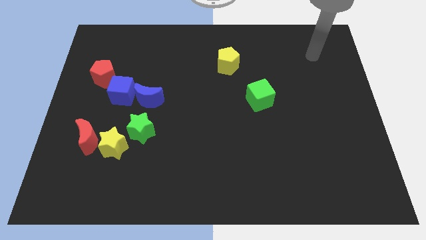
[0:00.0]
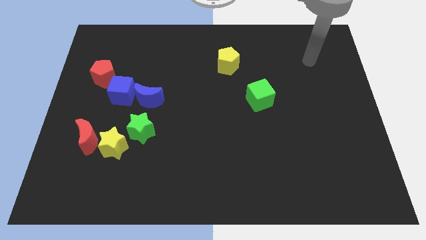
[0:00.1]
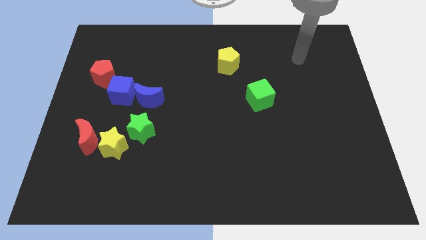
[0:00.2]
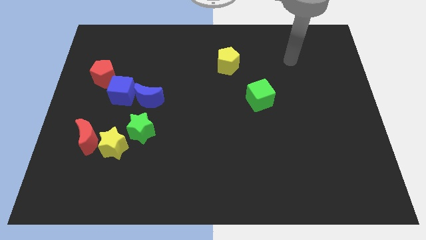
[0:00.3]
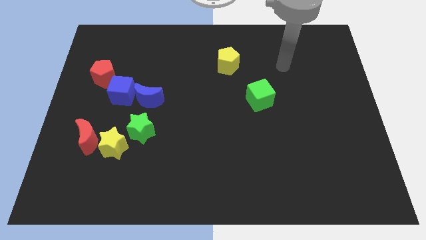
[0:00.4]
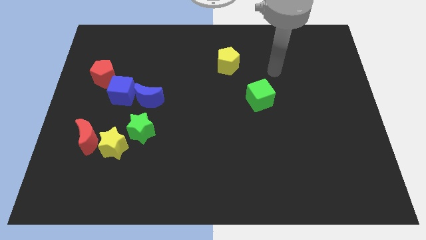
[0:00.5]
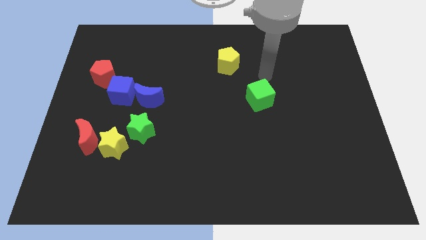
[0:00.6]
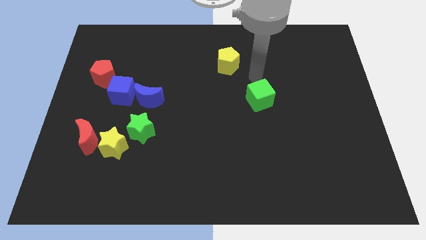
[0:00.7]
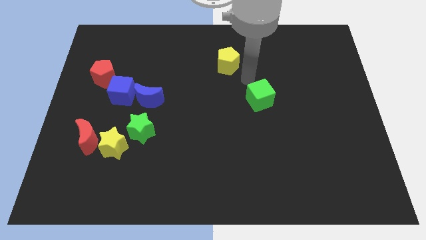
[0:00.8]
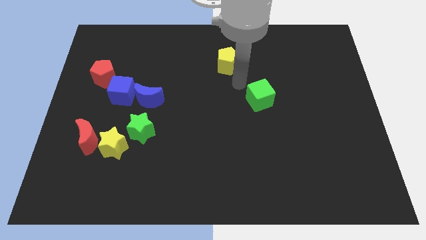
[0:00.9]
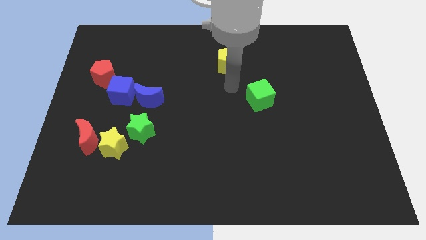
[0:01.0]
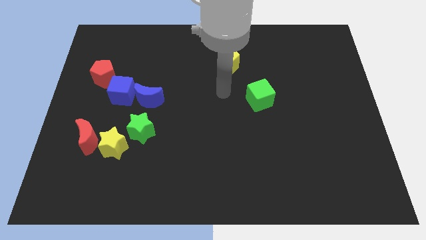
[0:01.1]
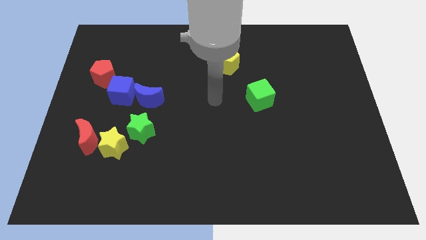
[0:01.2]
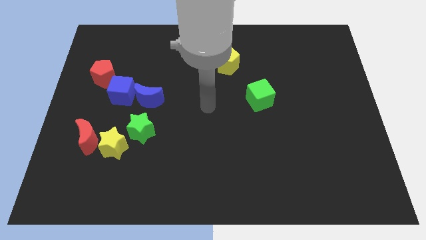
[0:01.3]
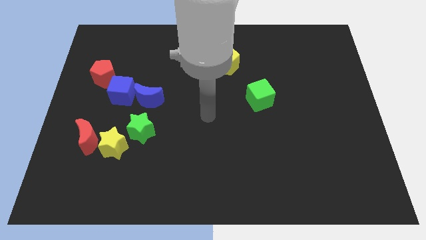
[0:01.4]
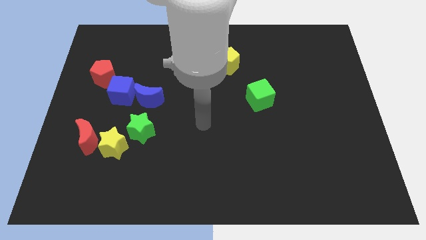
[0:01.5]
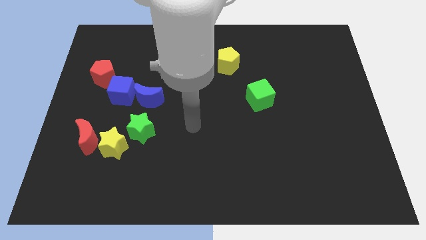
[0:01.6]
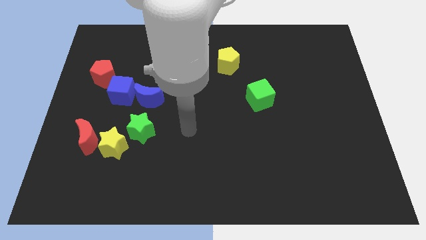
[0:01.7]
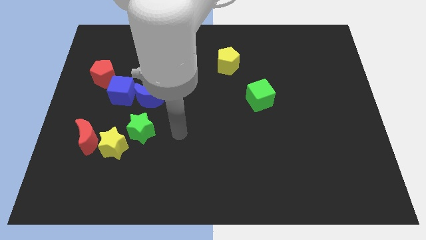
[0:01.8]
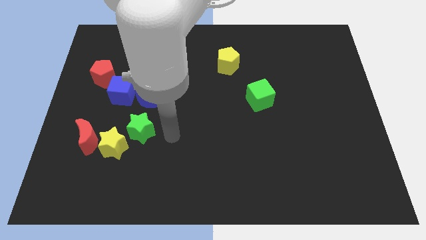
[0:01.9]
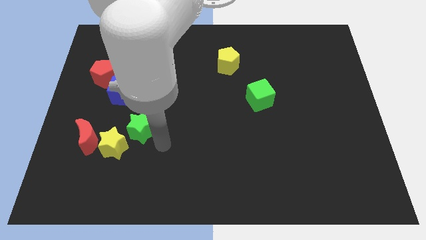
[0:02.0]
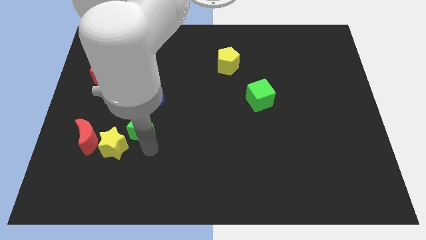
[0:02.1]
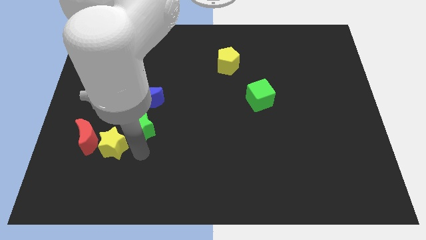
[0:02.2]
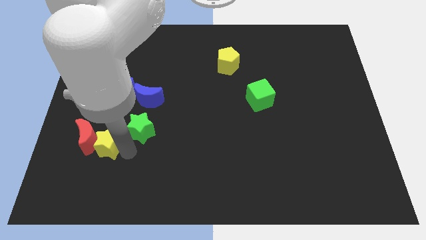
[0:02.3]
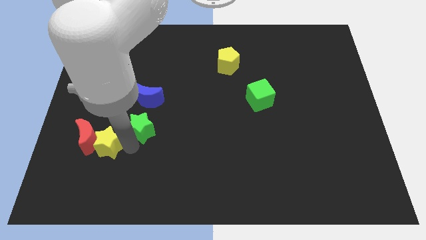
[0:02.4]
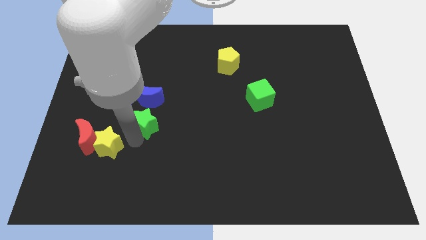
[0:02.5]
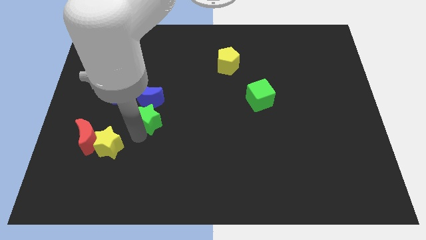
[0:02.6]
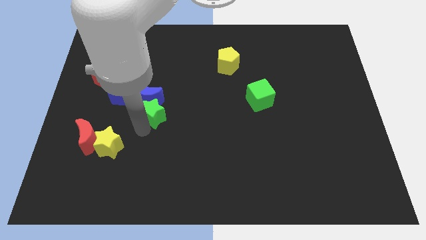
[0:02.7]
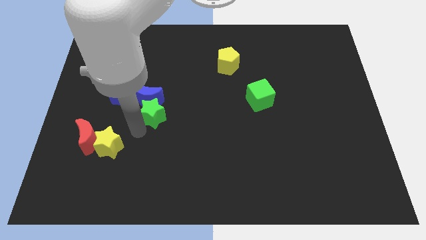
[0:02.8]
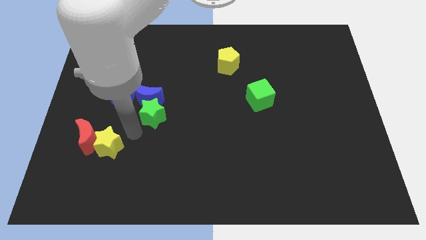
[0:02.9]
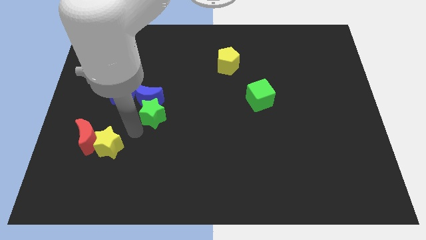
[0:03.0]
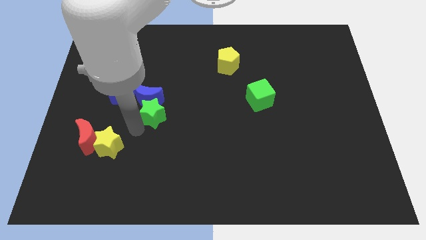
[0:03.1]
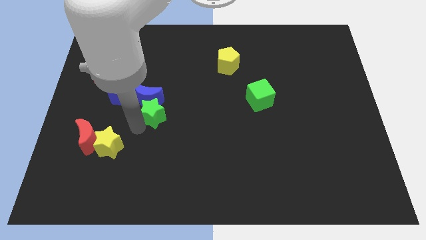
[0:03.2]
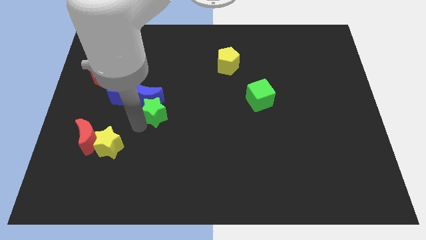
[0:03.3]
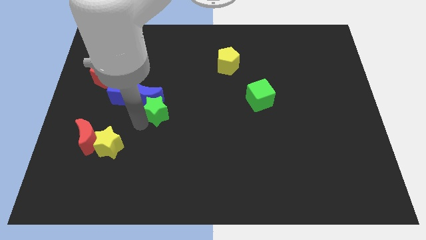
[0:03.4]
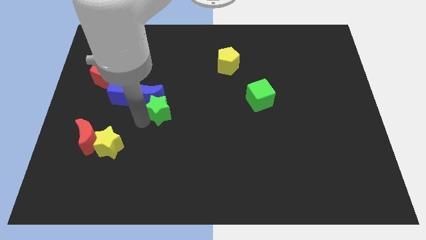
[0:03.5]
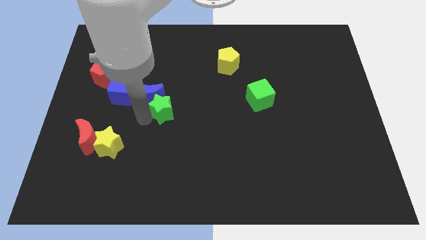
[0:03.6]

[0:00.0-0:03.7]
slightly slide the green star diagonally upwards and right

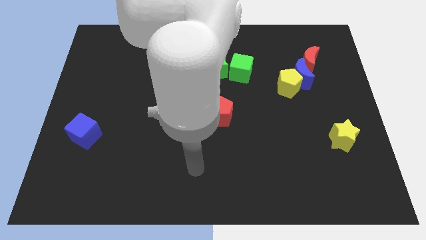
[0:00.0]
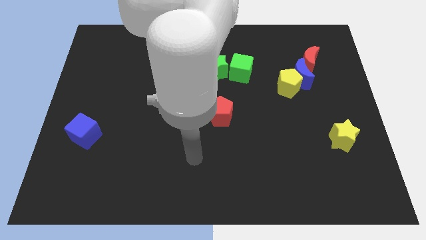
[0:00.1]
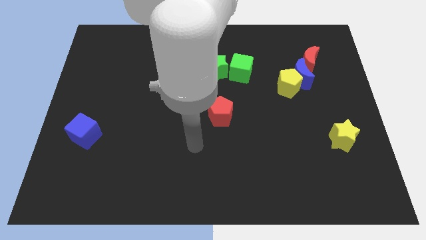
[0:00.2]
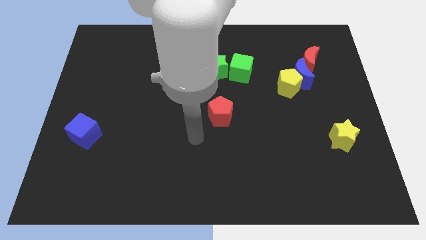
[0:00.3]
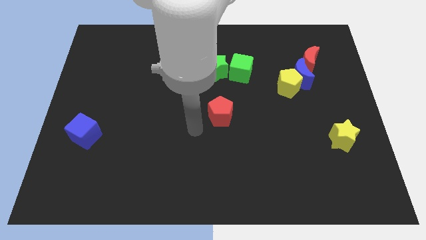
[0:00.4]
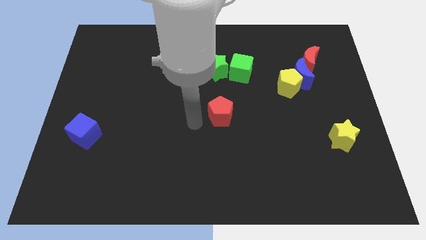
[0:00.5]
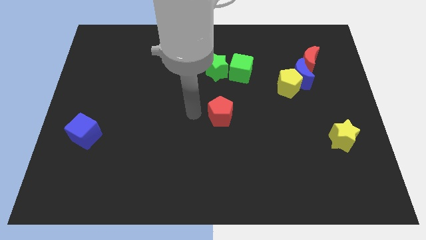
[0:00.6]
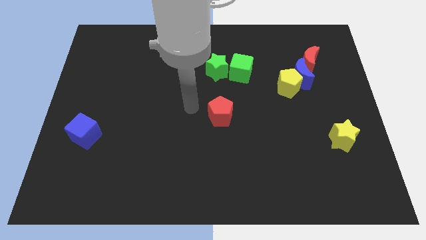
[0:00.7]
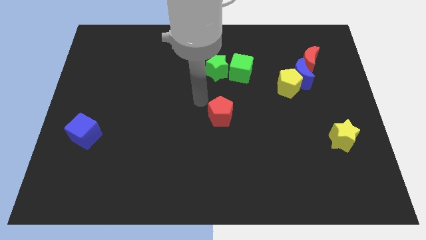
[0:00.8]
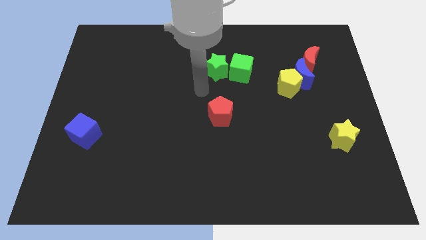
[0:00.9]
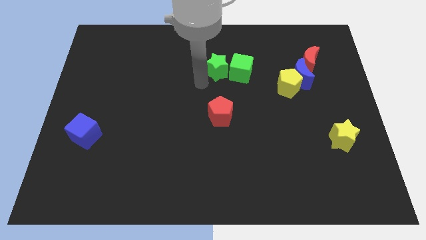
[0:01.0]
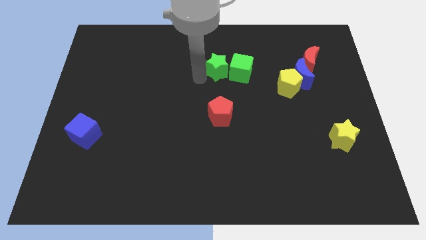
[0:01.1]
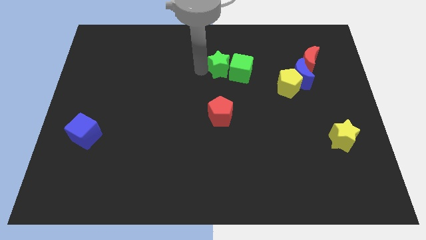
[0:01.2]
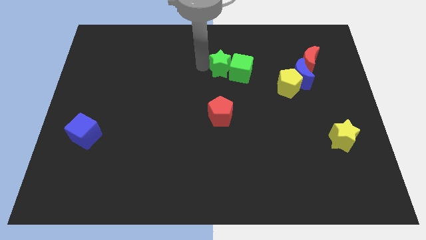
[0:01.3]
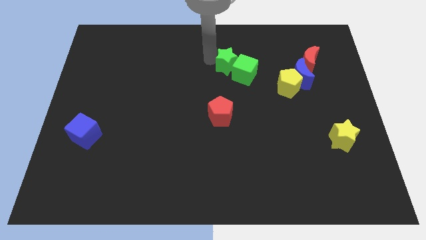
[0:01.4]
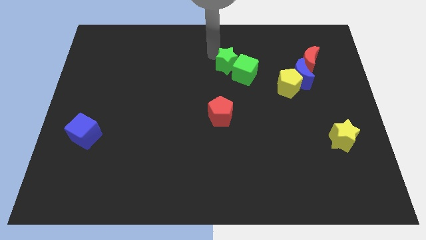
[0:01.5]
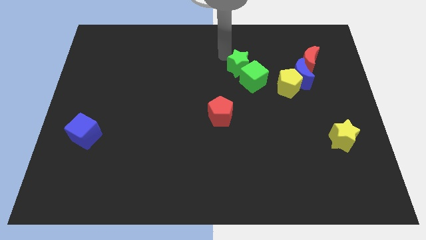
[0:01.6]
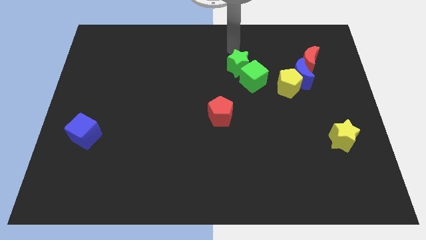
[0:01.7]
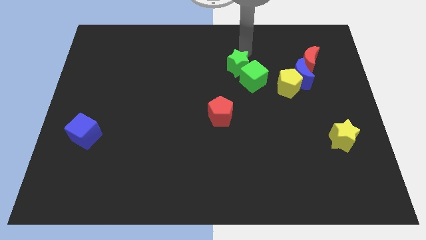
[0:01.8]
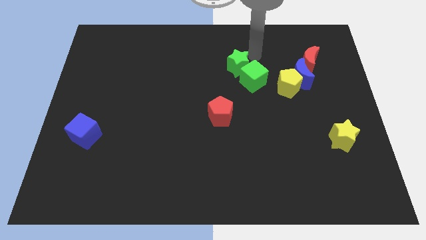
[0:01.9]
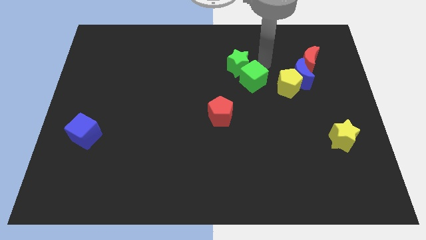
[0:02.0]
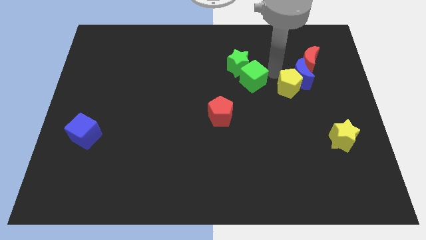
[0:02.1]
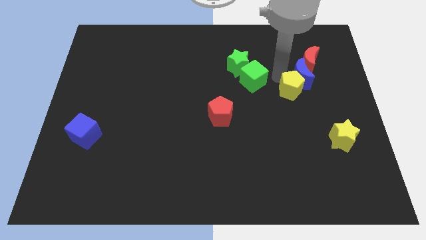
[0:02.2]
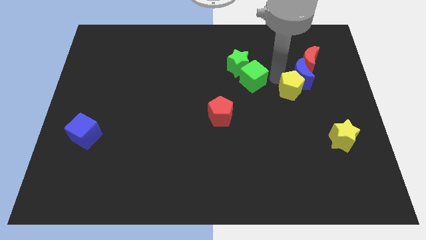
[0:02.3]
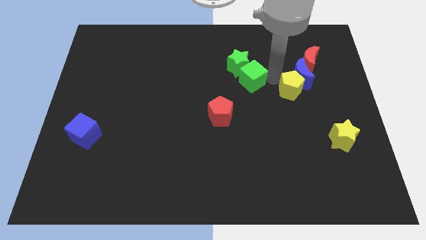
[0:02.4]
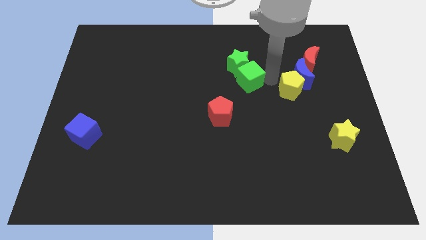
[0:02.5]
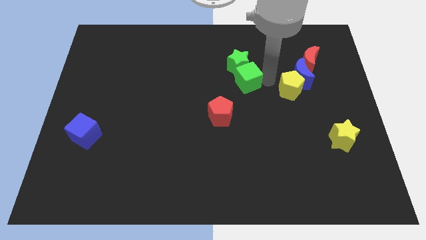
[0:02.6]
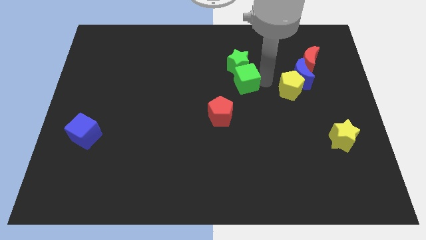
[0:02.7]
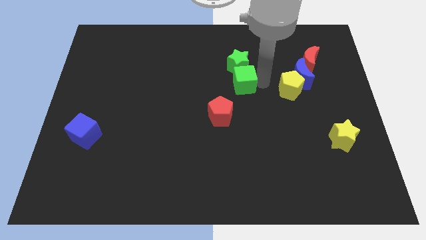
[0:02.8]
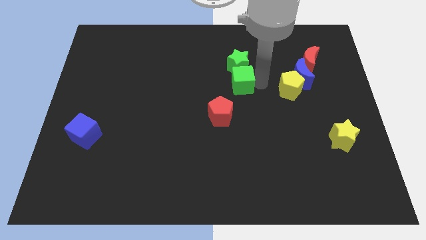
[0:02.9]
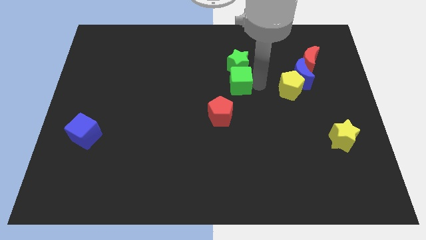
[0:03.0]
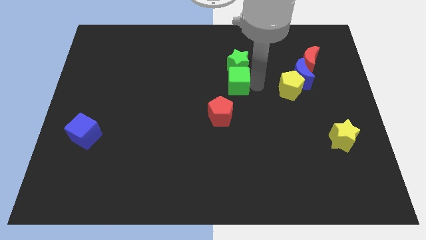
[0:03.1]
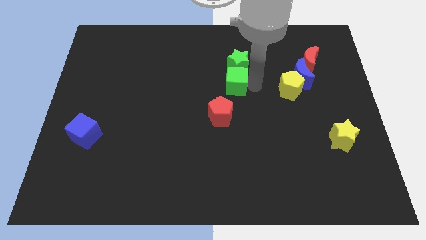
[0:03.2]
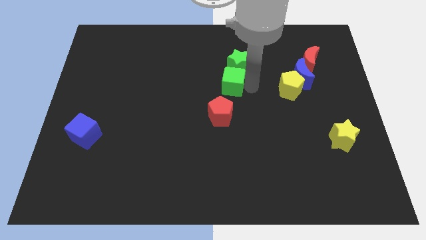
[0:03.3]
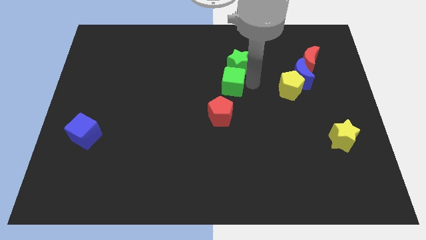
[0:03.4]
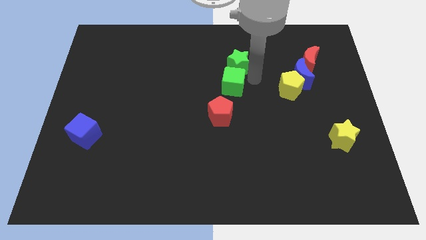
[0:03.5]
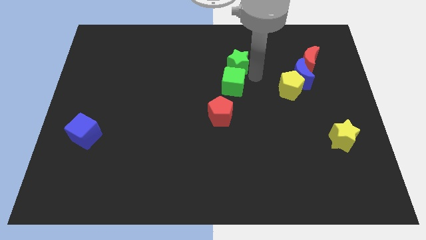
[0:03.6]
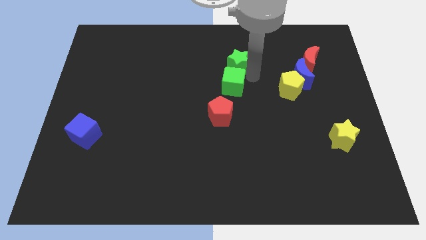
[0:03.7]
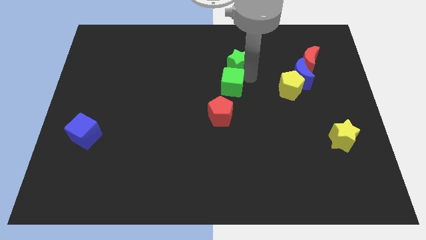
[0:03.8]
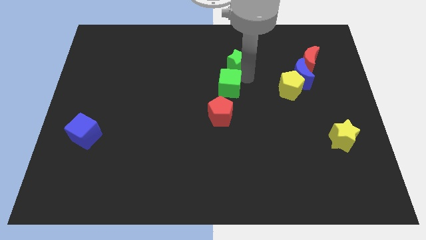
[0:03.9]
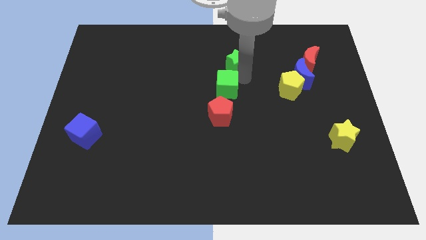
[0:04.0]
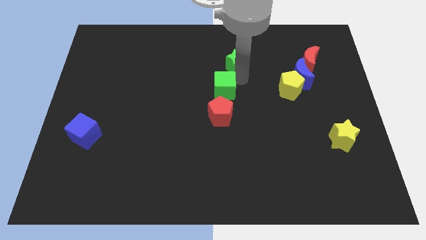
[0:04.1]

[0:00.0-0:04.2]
move the green cube slightly diagonally down and to the left

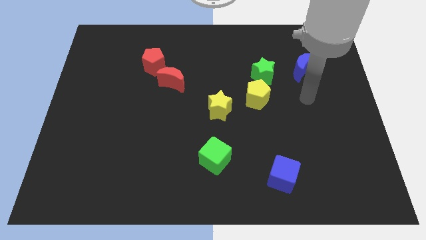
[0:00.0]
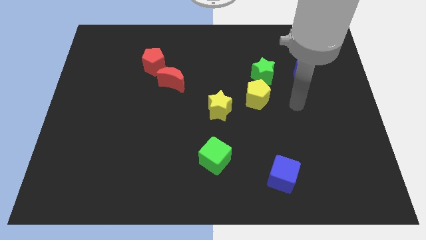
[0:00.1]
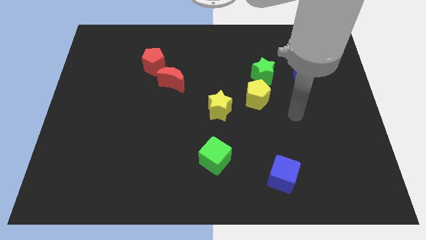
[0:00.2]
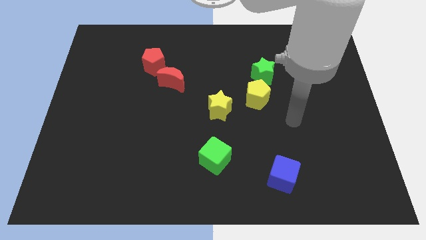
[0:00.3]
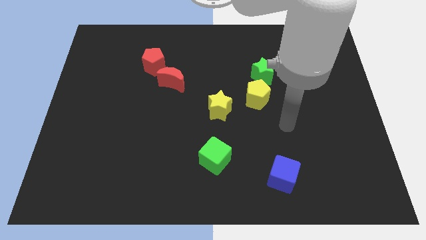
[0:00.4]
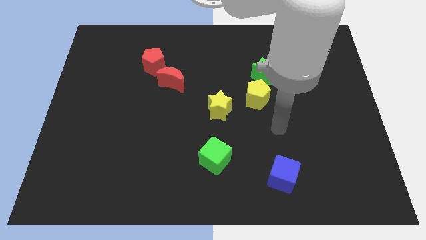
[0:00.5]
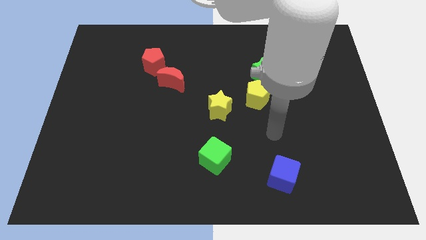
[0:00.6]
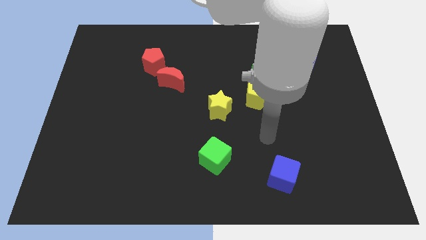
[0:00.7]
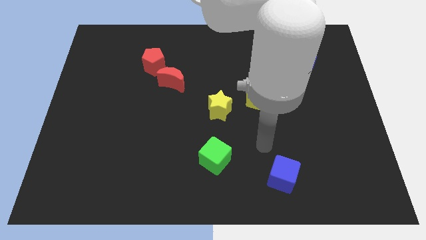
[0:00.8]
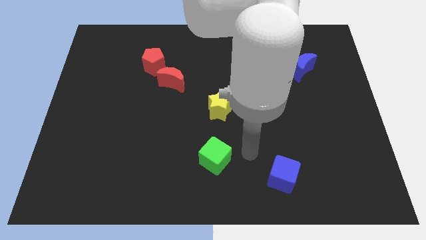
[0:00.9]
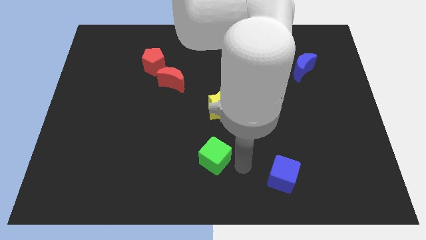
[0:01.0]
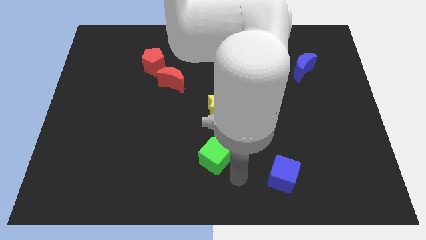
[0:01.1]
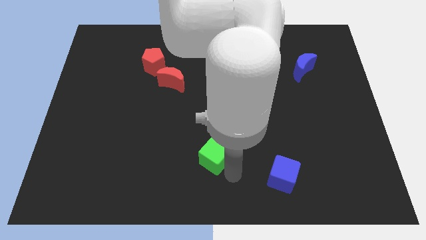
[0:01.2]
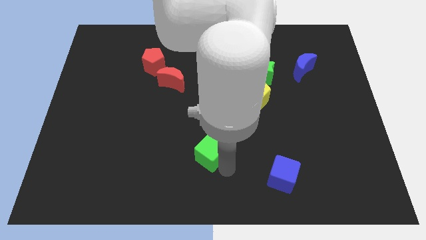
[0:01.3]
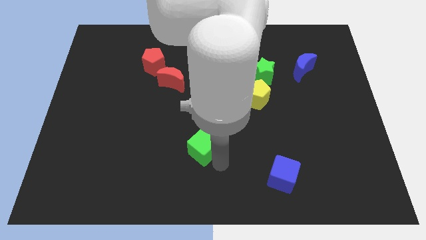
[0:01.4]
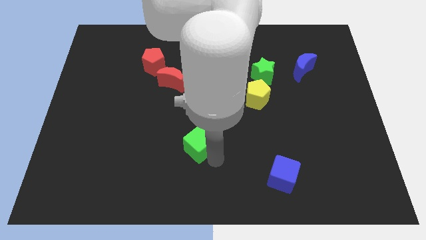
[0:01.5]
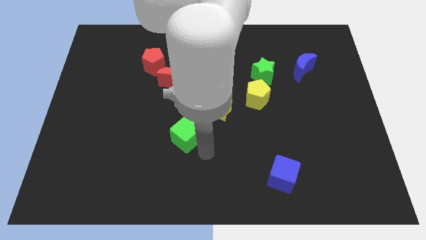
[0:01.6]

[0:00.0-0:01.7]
move the green cube slightly up and then to the left
